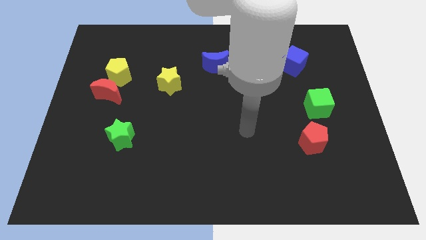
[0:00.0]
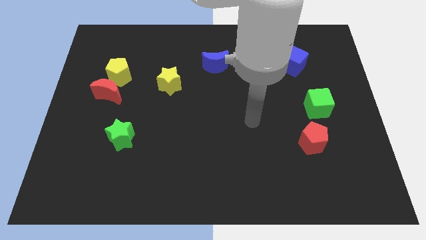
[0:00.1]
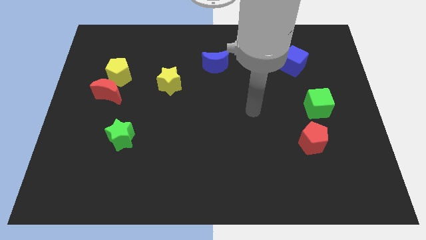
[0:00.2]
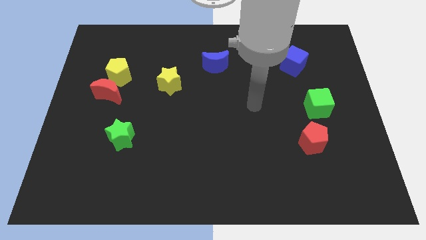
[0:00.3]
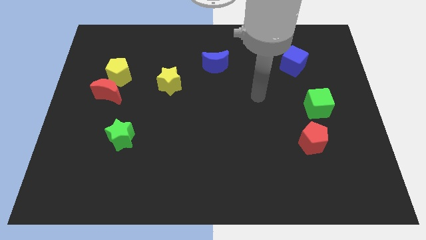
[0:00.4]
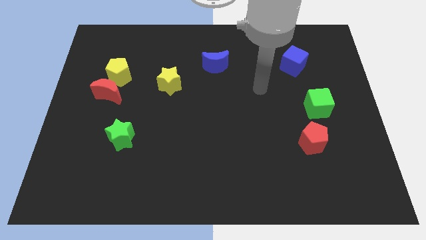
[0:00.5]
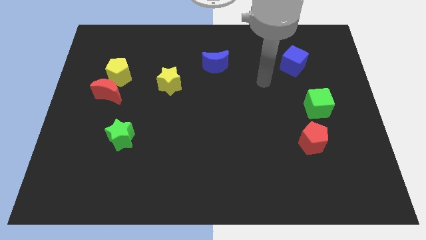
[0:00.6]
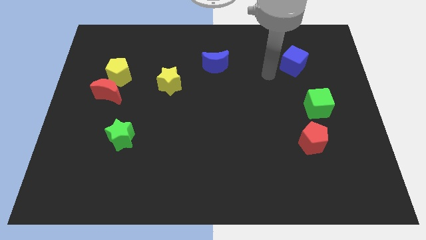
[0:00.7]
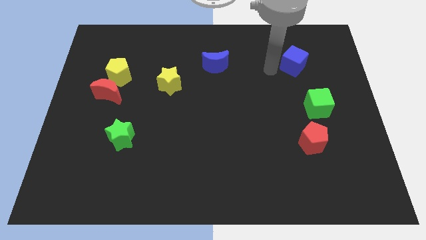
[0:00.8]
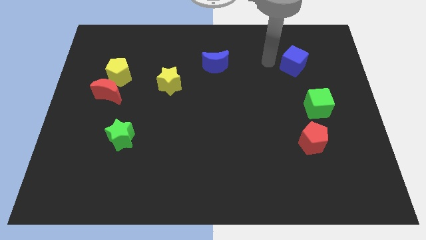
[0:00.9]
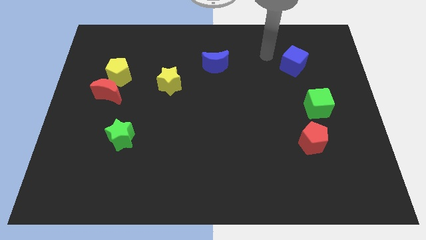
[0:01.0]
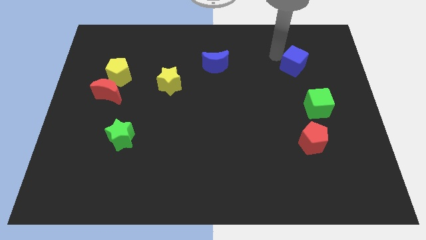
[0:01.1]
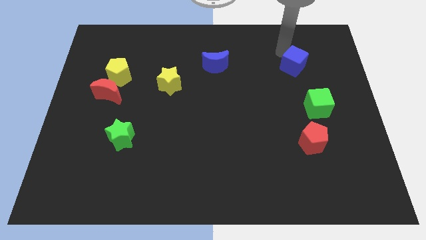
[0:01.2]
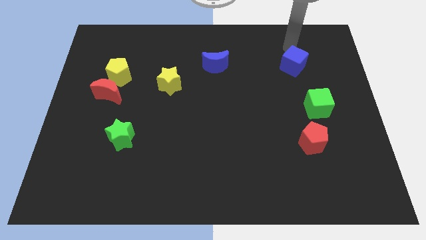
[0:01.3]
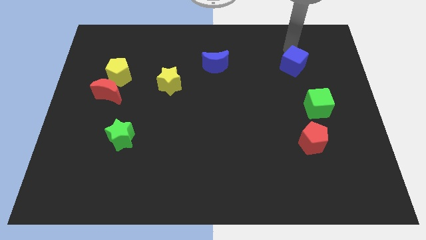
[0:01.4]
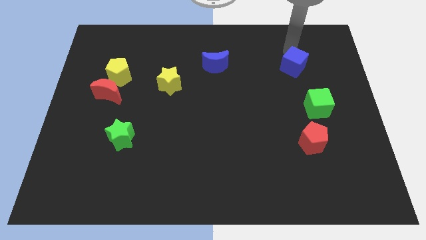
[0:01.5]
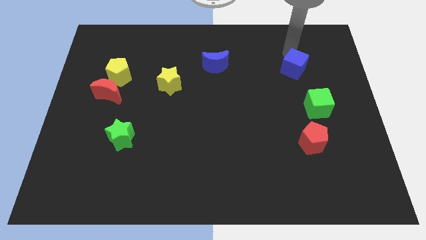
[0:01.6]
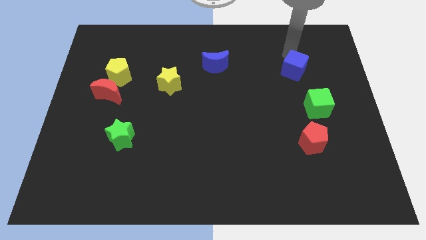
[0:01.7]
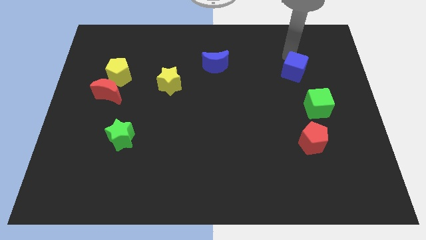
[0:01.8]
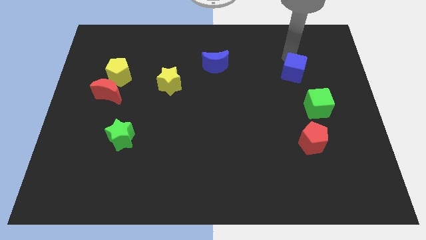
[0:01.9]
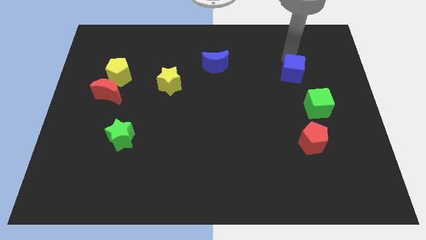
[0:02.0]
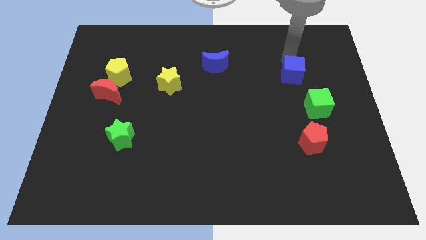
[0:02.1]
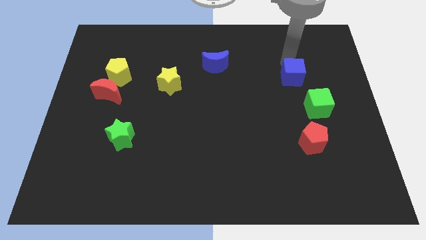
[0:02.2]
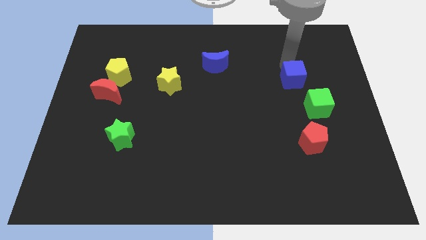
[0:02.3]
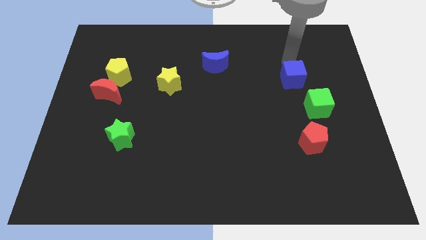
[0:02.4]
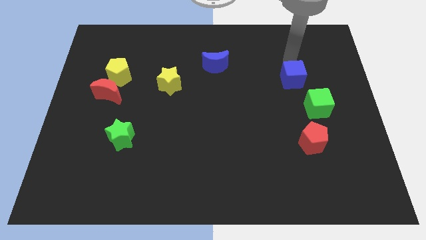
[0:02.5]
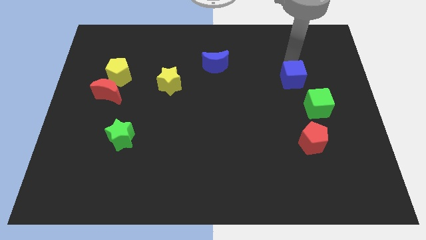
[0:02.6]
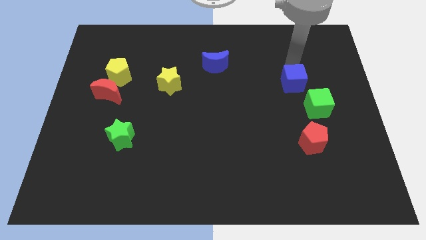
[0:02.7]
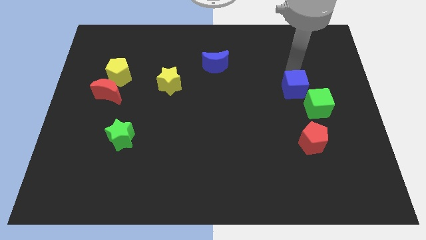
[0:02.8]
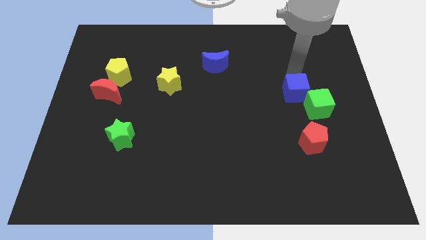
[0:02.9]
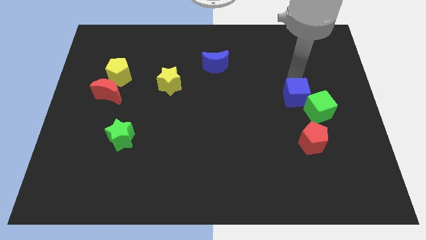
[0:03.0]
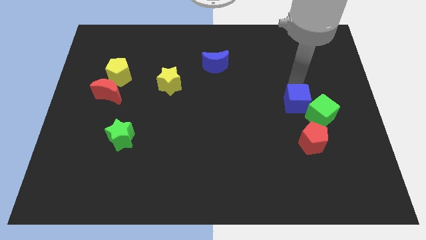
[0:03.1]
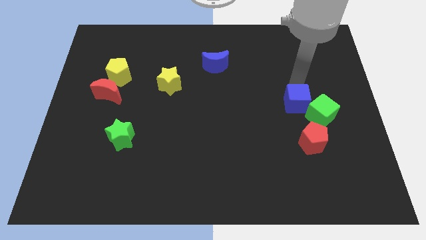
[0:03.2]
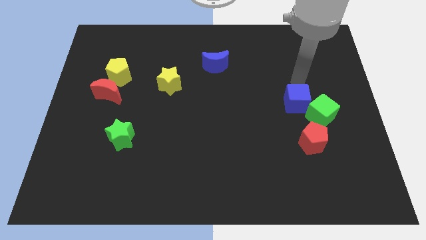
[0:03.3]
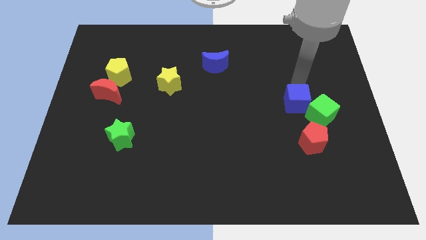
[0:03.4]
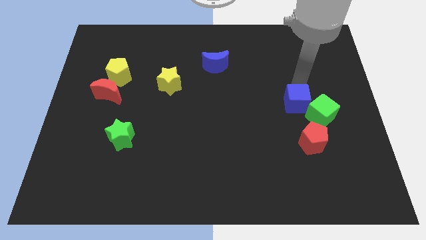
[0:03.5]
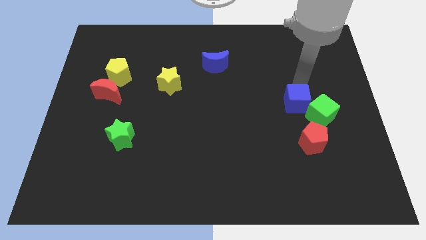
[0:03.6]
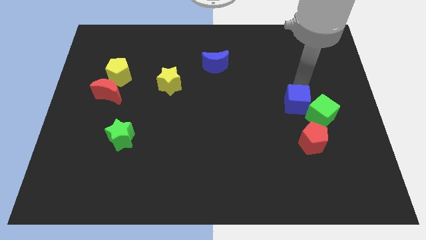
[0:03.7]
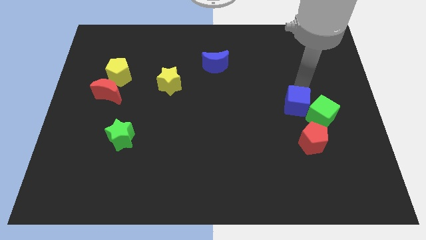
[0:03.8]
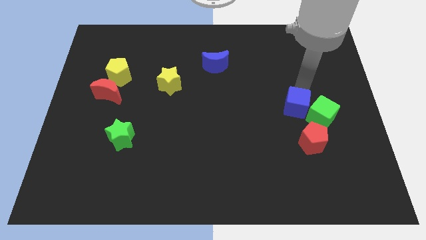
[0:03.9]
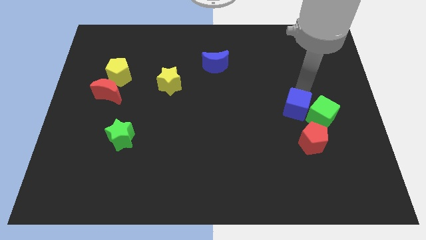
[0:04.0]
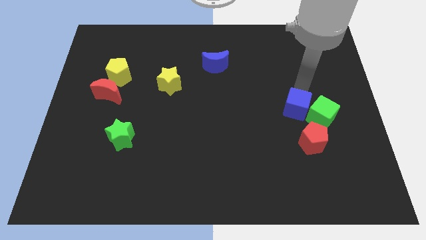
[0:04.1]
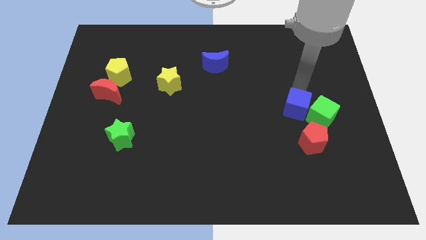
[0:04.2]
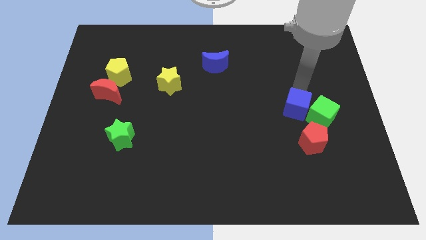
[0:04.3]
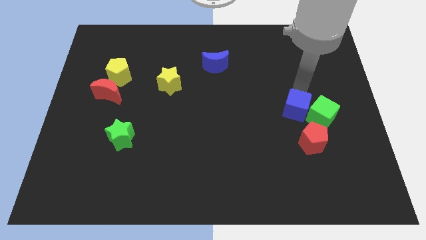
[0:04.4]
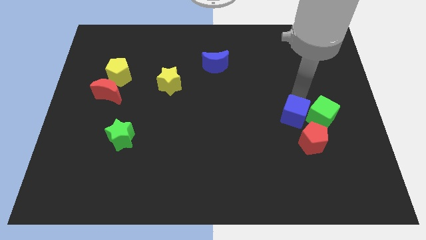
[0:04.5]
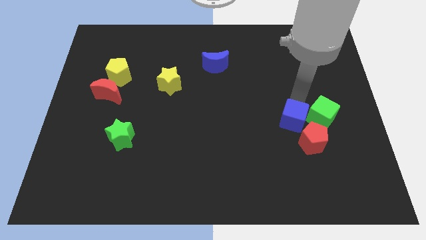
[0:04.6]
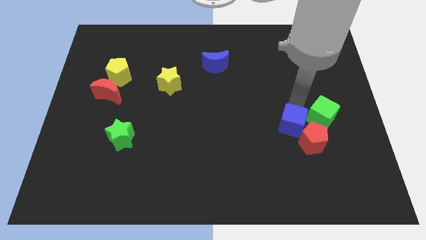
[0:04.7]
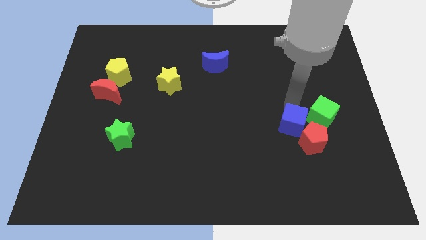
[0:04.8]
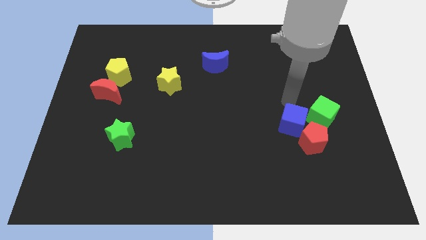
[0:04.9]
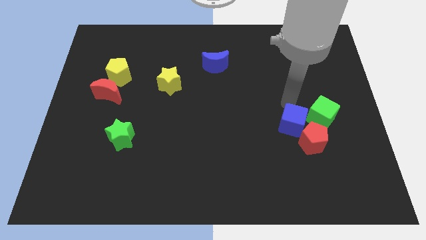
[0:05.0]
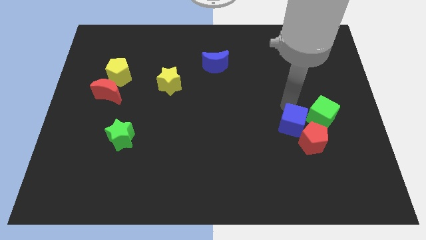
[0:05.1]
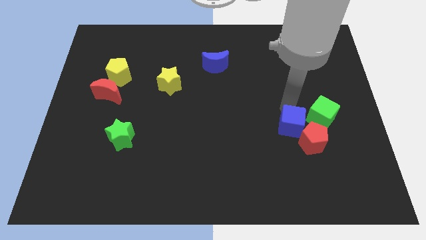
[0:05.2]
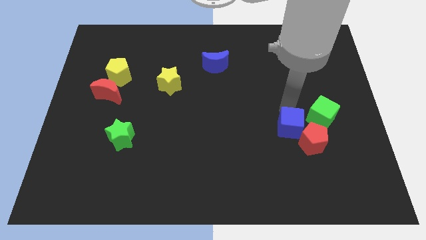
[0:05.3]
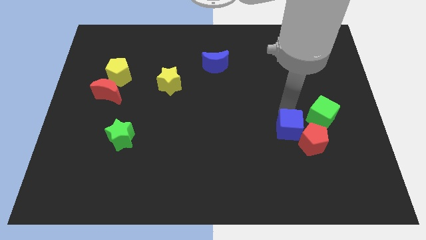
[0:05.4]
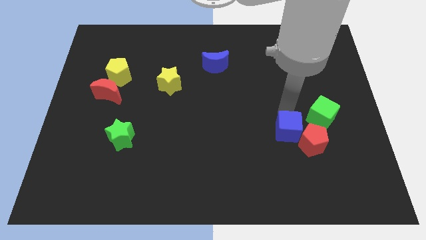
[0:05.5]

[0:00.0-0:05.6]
push the blue cube downwards

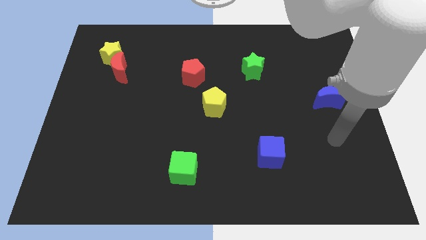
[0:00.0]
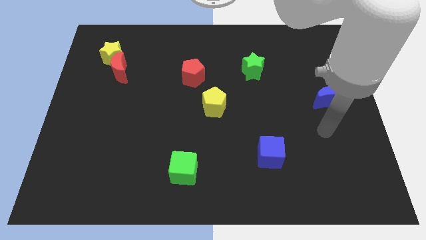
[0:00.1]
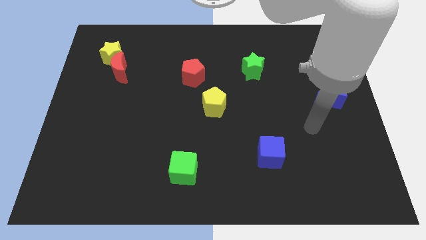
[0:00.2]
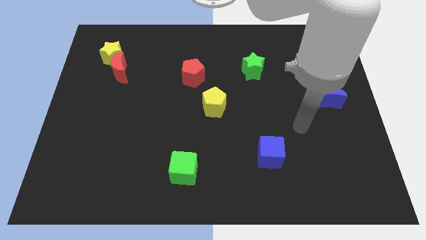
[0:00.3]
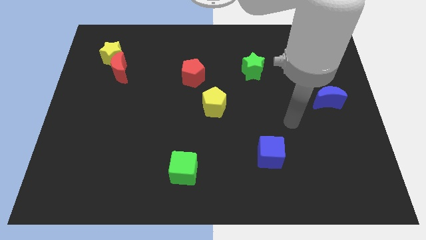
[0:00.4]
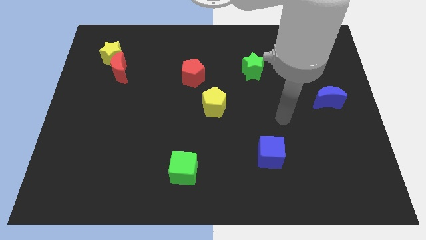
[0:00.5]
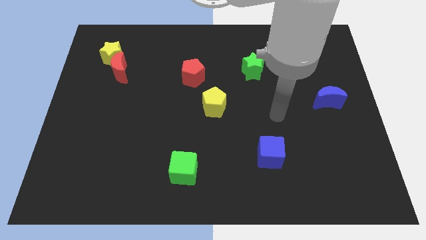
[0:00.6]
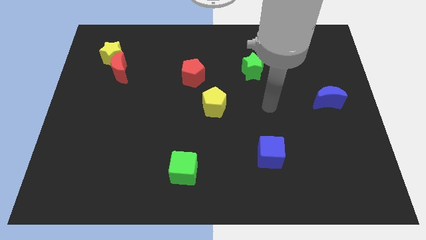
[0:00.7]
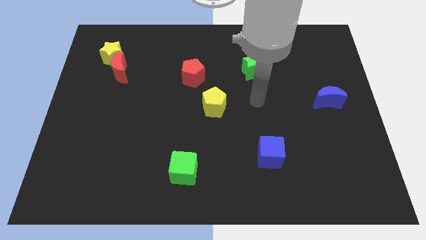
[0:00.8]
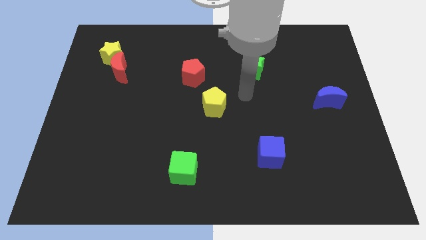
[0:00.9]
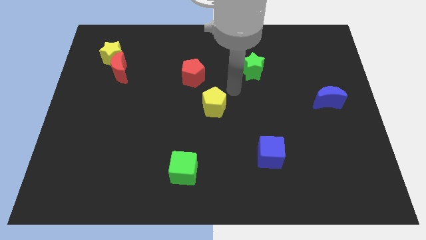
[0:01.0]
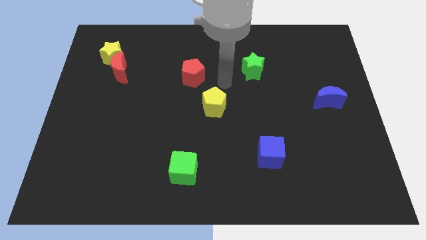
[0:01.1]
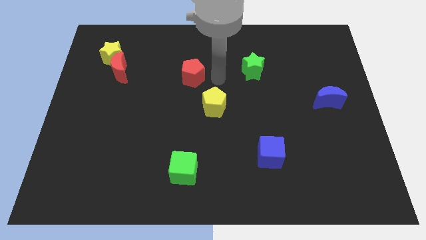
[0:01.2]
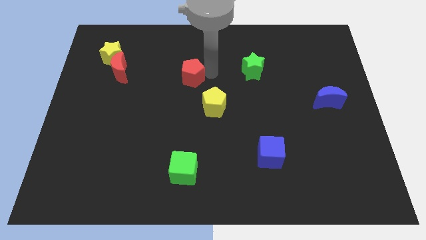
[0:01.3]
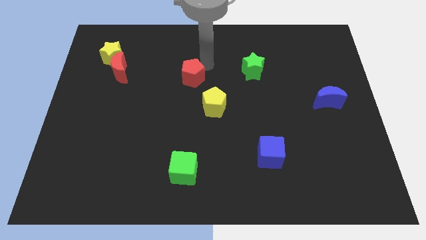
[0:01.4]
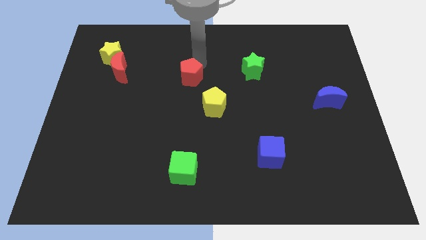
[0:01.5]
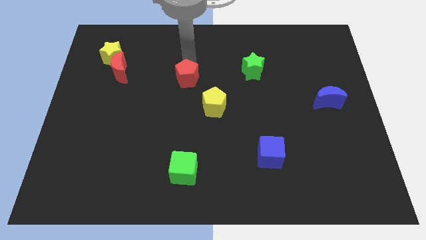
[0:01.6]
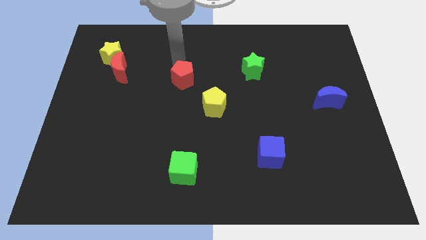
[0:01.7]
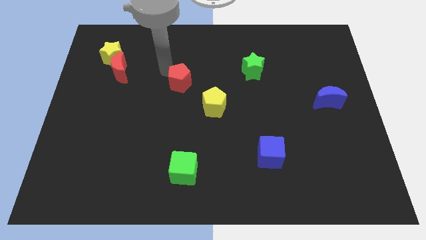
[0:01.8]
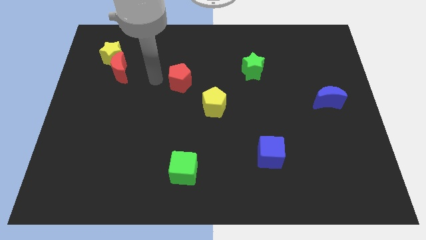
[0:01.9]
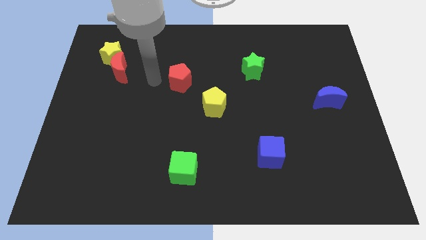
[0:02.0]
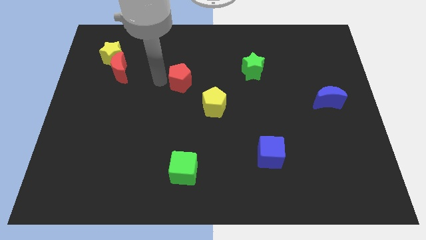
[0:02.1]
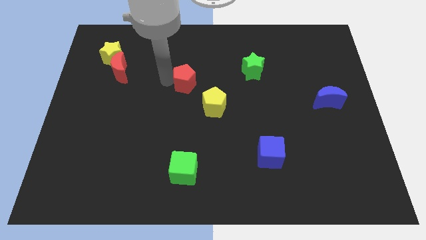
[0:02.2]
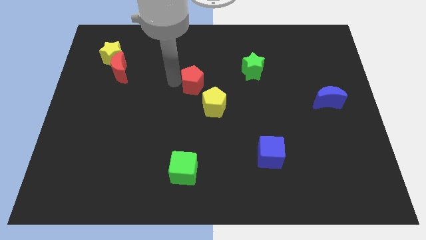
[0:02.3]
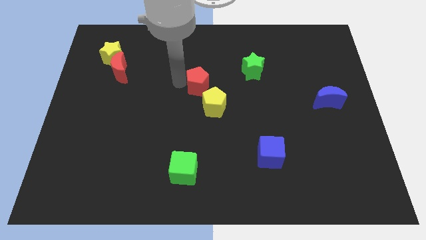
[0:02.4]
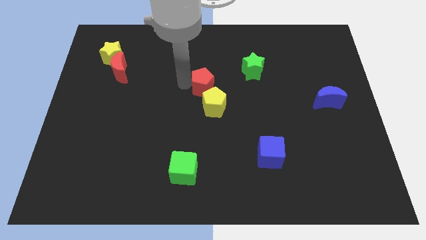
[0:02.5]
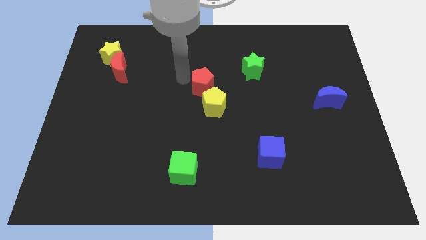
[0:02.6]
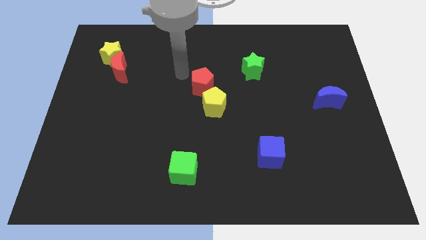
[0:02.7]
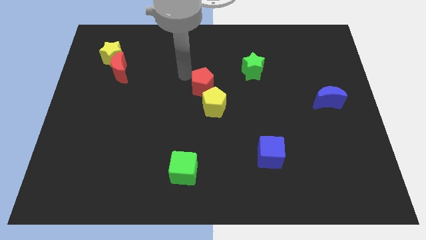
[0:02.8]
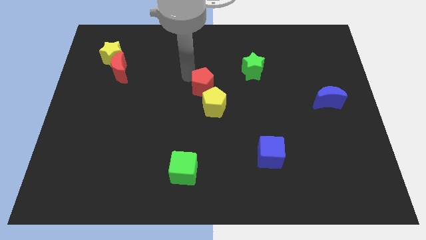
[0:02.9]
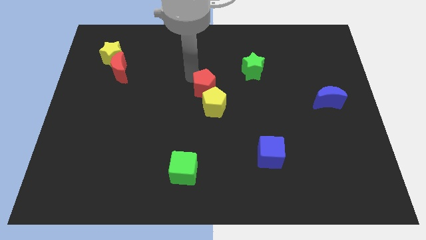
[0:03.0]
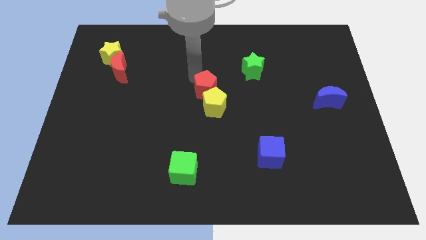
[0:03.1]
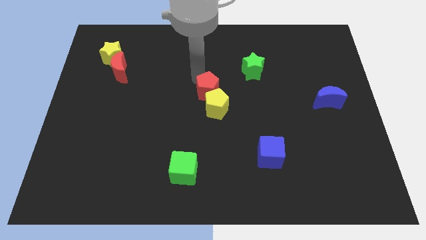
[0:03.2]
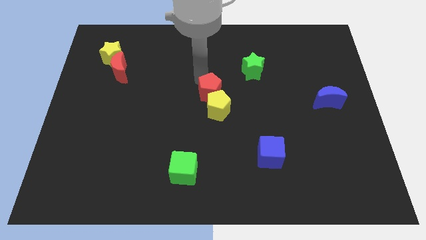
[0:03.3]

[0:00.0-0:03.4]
slide the red pentagon a little downwards and to the right diagonally
